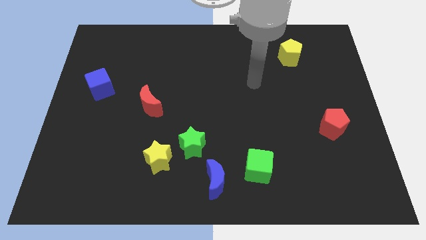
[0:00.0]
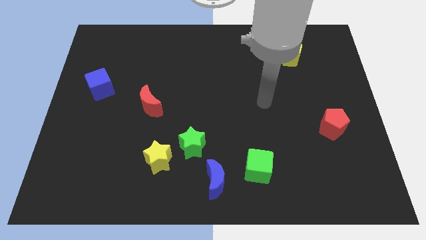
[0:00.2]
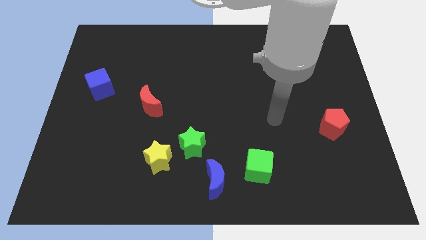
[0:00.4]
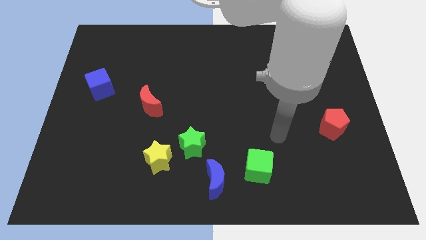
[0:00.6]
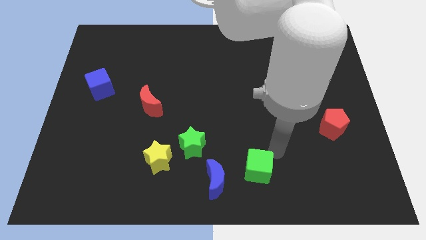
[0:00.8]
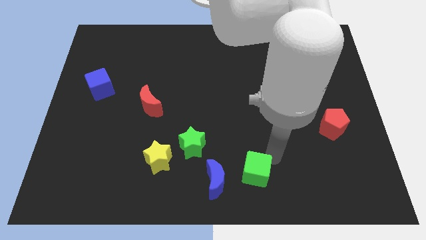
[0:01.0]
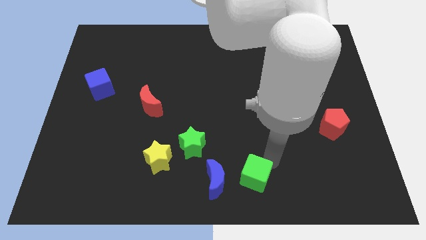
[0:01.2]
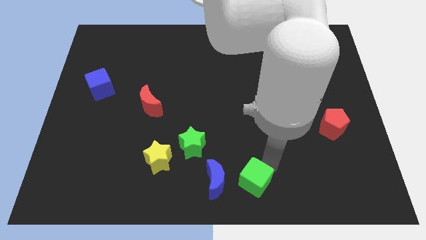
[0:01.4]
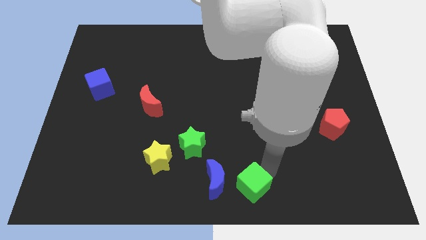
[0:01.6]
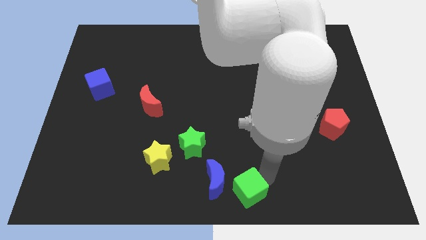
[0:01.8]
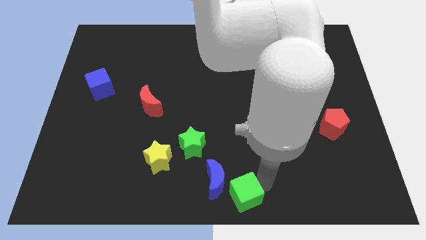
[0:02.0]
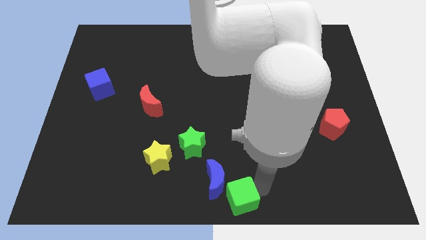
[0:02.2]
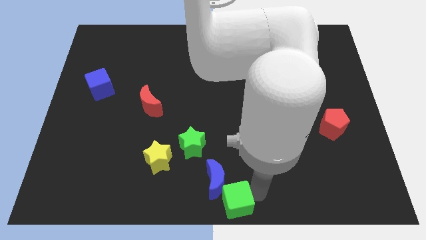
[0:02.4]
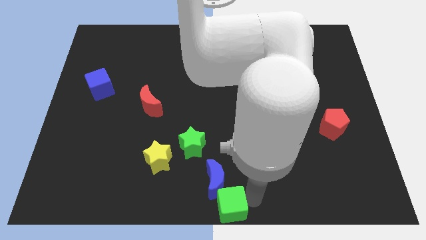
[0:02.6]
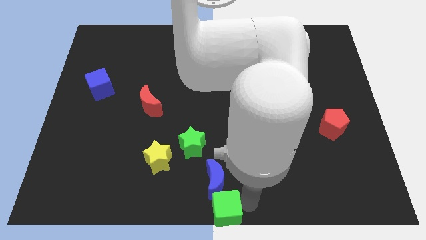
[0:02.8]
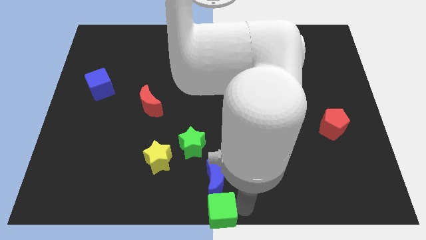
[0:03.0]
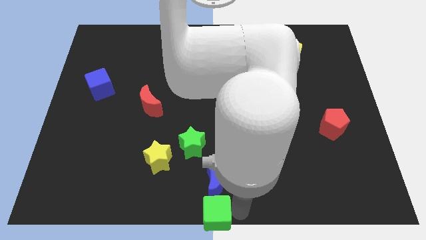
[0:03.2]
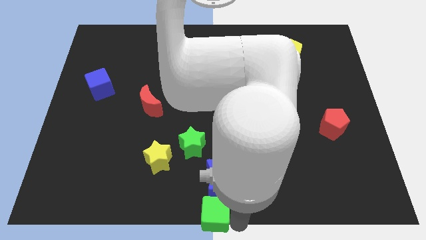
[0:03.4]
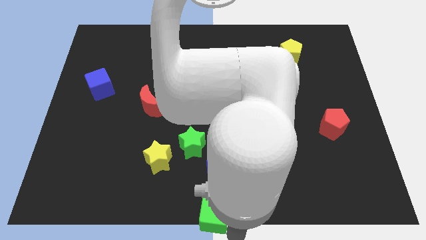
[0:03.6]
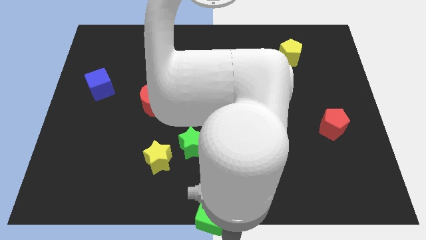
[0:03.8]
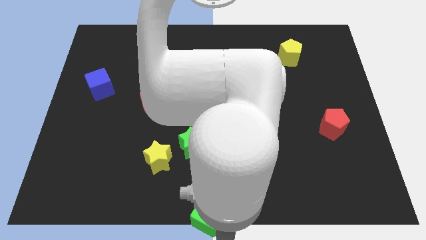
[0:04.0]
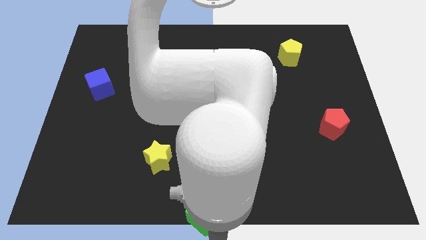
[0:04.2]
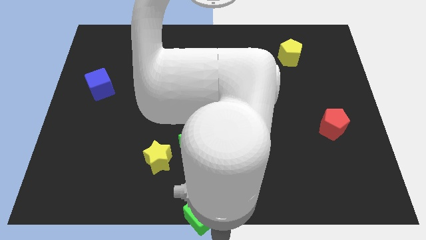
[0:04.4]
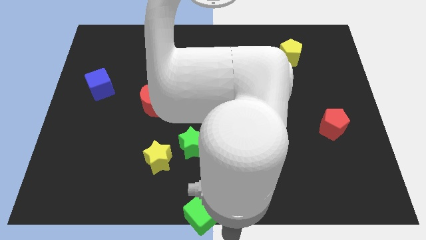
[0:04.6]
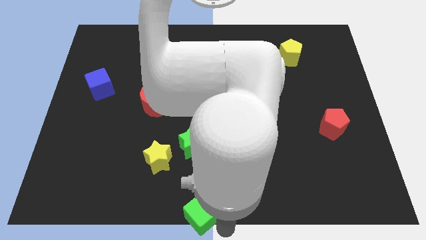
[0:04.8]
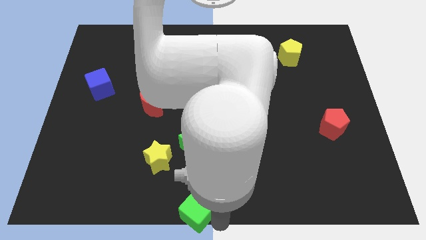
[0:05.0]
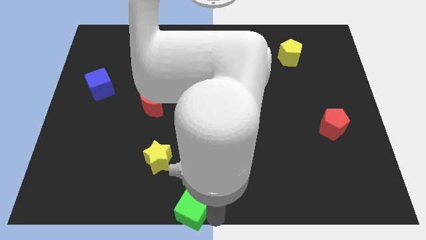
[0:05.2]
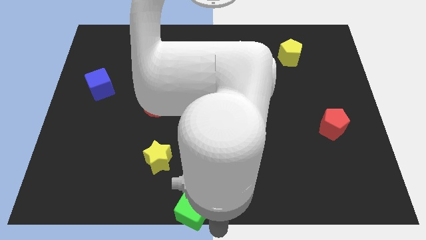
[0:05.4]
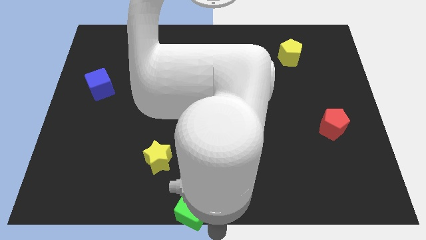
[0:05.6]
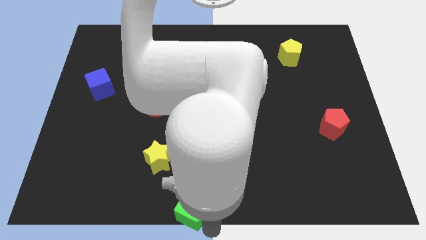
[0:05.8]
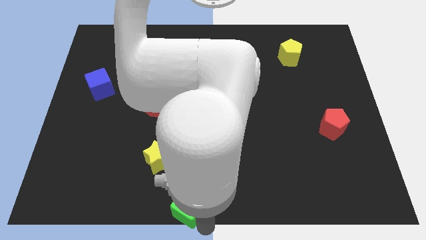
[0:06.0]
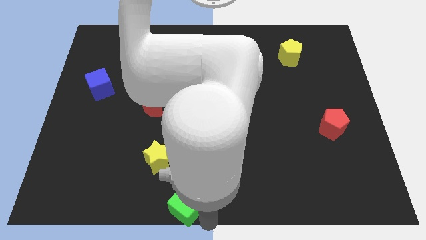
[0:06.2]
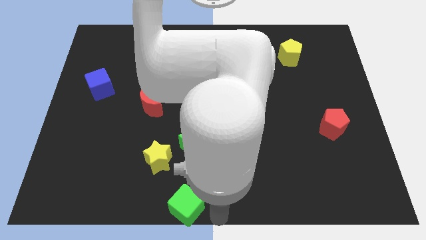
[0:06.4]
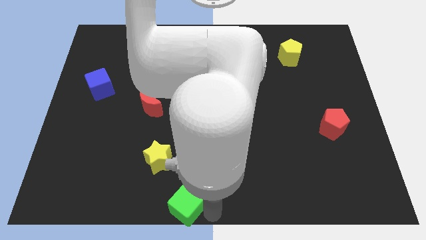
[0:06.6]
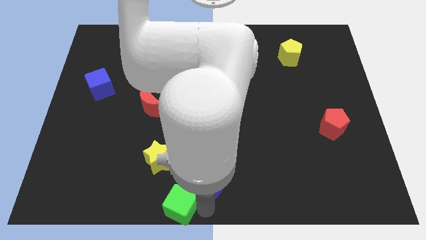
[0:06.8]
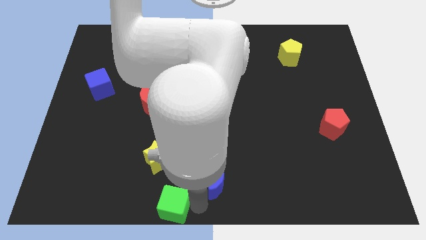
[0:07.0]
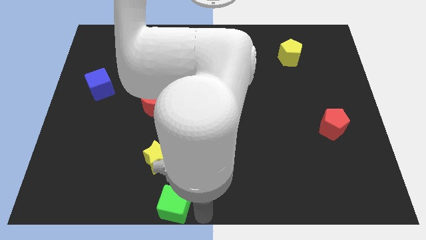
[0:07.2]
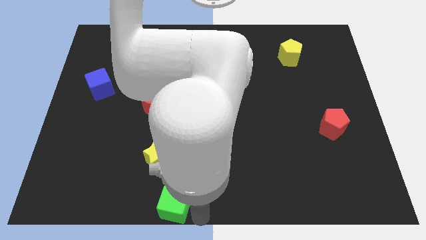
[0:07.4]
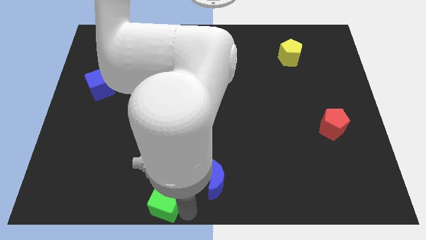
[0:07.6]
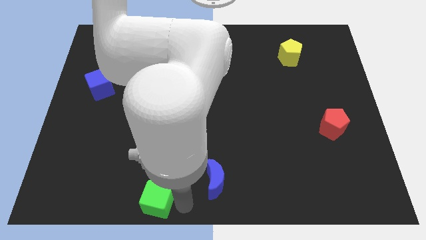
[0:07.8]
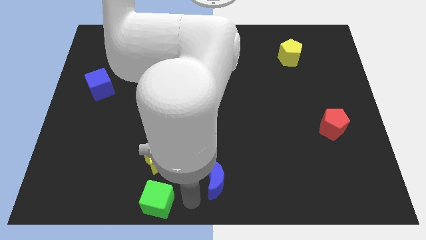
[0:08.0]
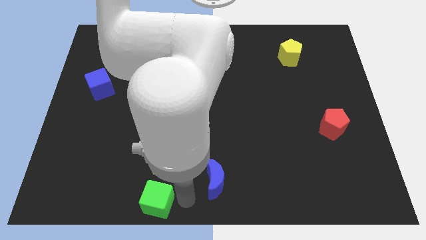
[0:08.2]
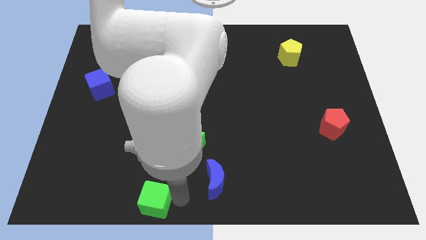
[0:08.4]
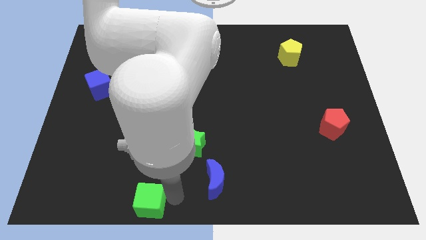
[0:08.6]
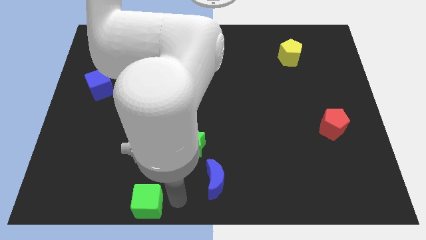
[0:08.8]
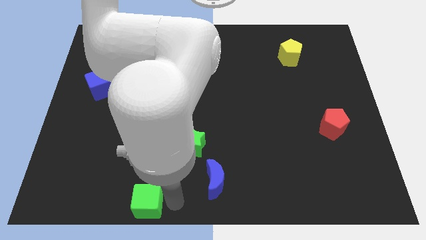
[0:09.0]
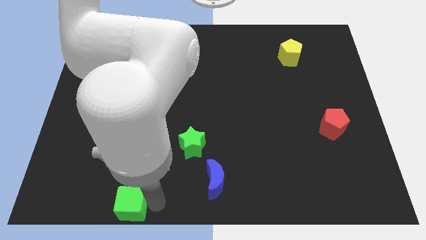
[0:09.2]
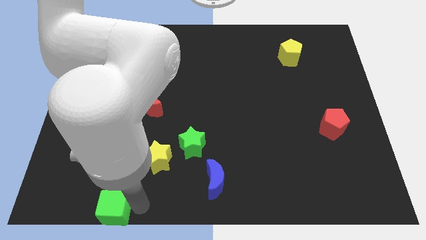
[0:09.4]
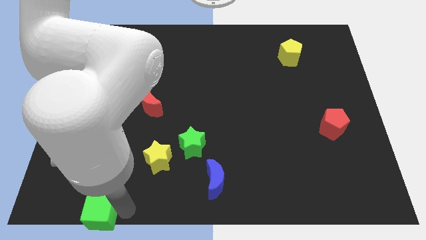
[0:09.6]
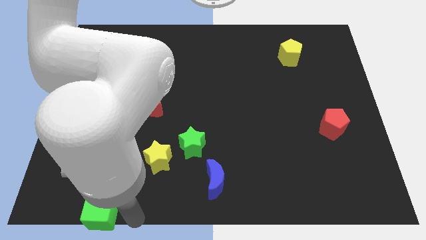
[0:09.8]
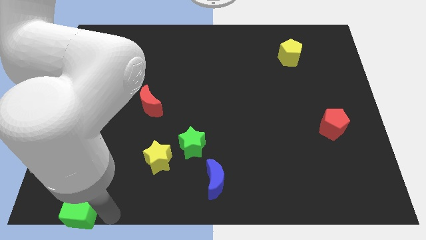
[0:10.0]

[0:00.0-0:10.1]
move the green cube to the bottom left corner
